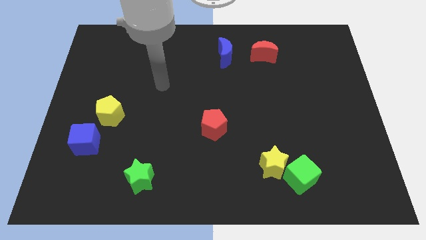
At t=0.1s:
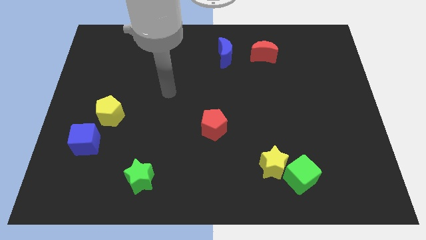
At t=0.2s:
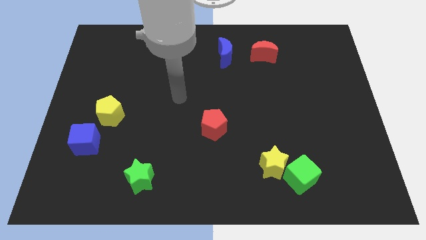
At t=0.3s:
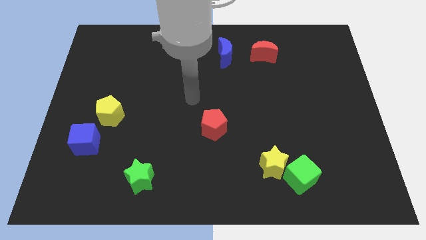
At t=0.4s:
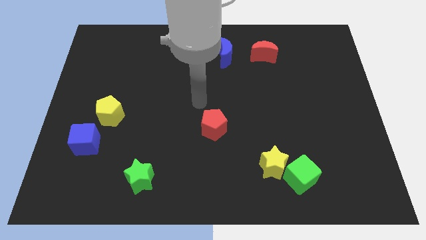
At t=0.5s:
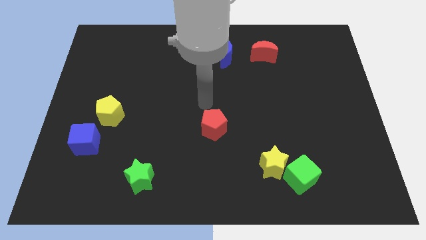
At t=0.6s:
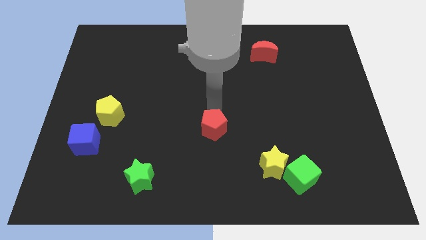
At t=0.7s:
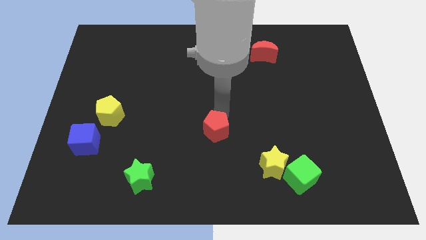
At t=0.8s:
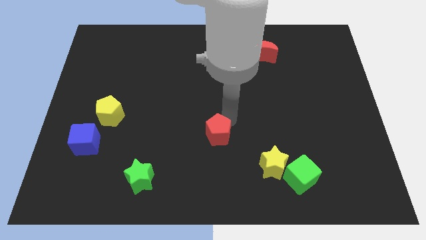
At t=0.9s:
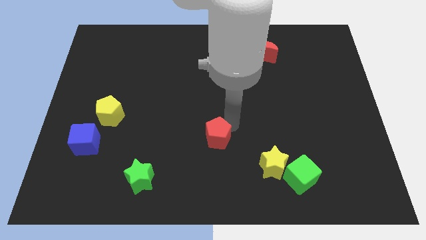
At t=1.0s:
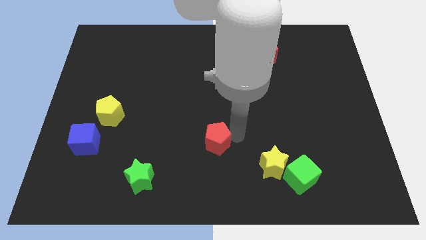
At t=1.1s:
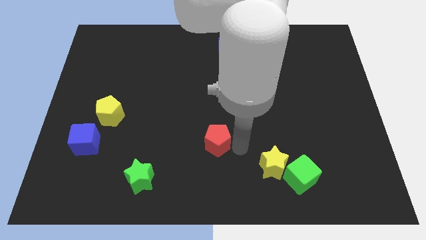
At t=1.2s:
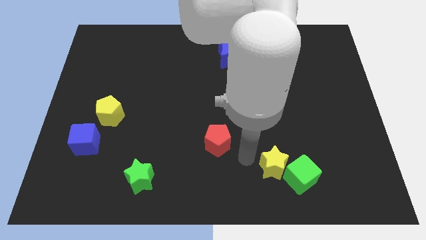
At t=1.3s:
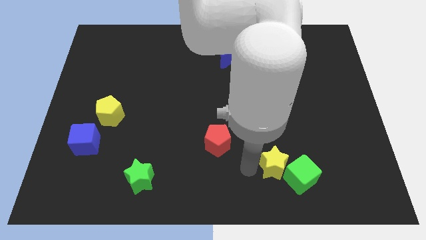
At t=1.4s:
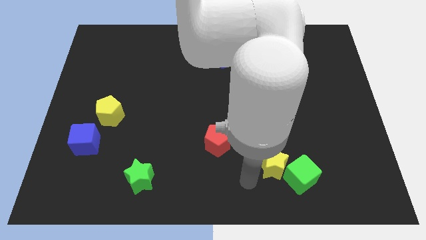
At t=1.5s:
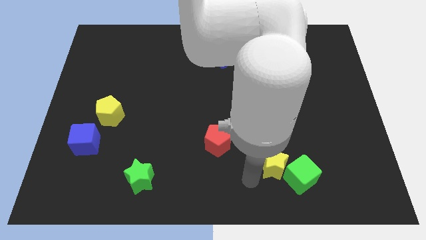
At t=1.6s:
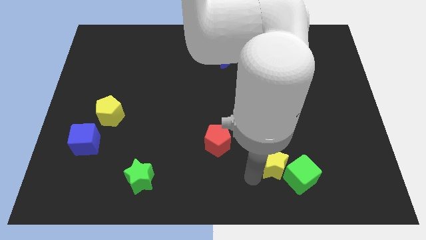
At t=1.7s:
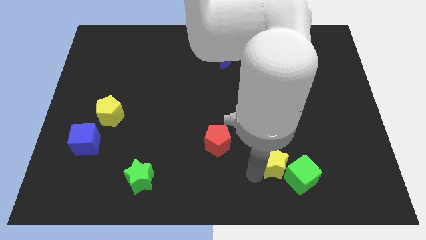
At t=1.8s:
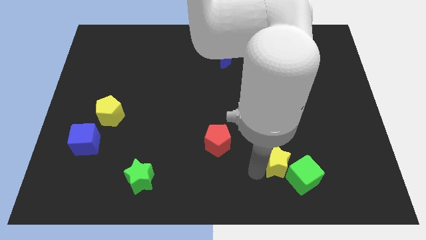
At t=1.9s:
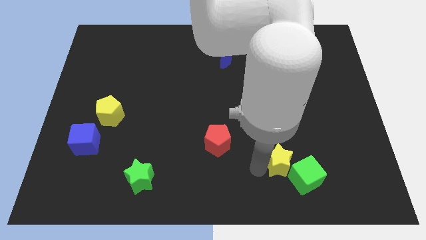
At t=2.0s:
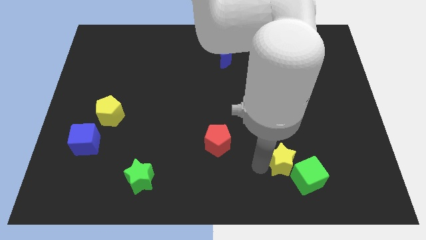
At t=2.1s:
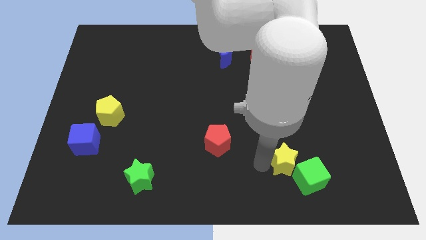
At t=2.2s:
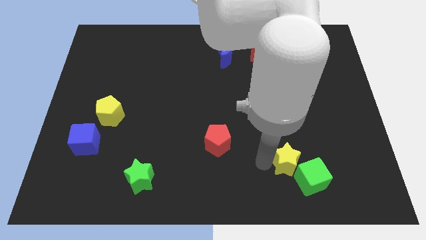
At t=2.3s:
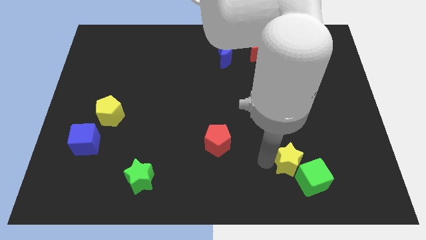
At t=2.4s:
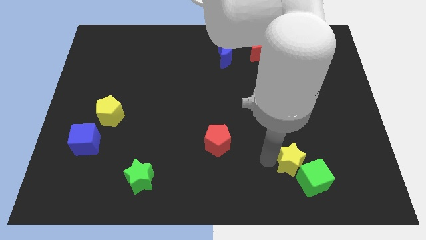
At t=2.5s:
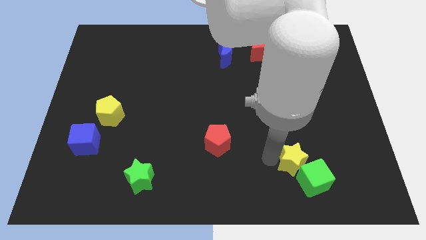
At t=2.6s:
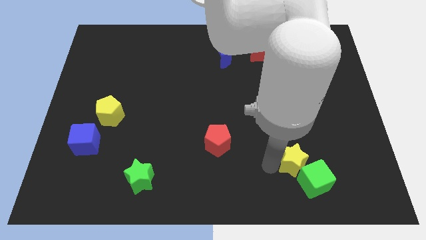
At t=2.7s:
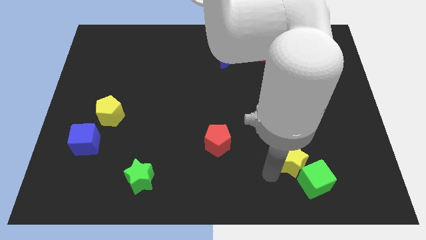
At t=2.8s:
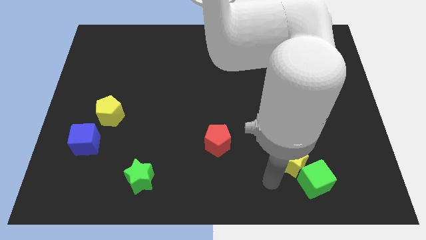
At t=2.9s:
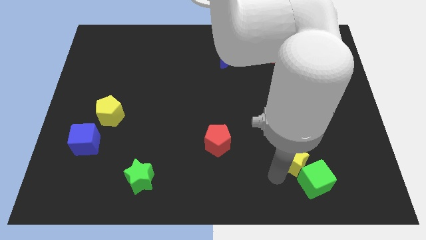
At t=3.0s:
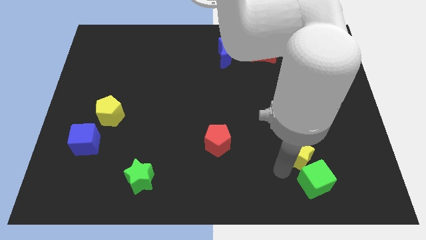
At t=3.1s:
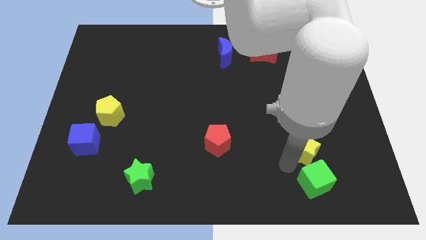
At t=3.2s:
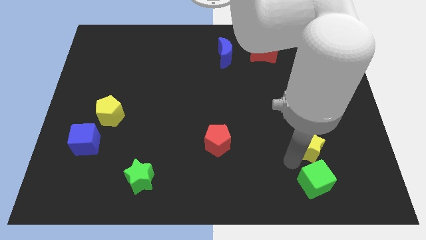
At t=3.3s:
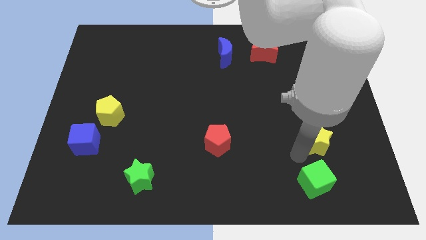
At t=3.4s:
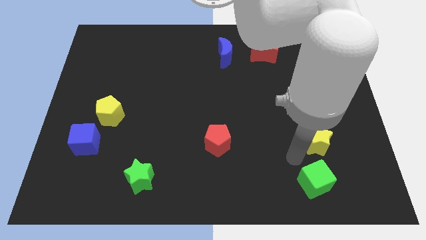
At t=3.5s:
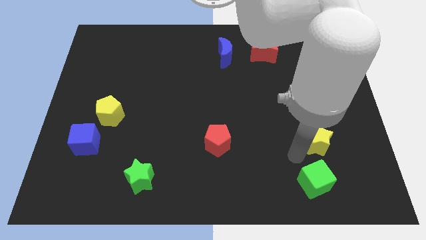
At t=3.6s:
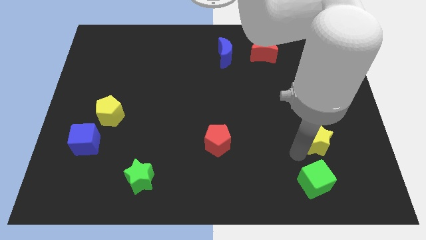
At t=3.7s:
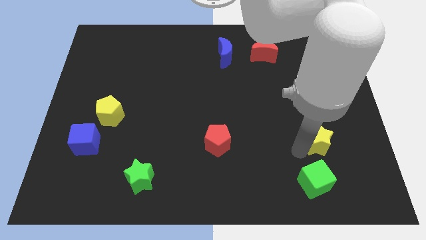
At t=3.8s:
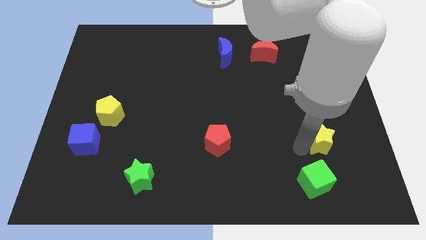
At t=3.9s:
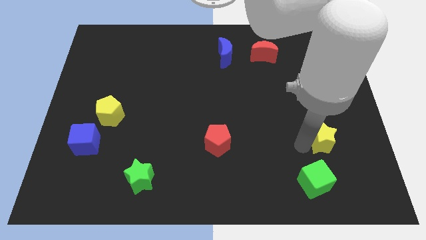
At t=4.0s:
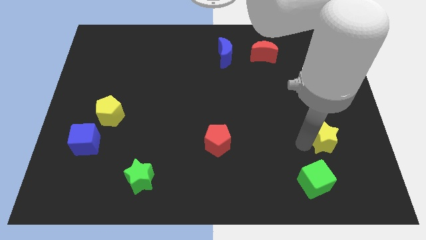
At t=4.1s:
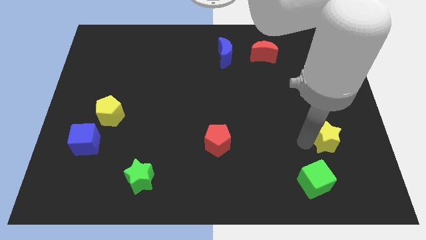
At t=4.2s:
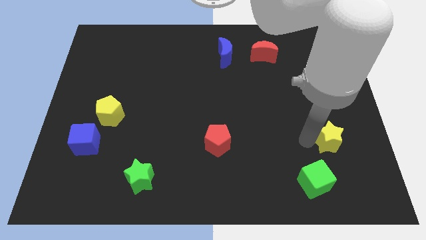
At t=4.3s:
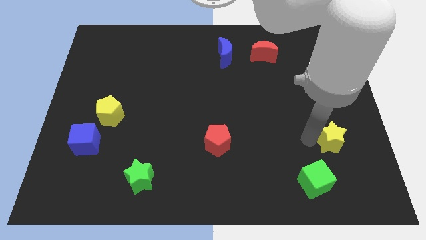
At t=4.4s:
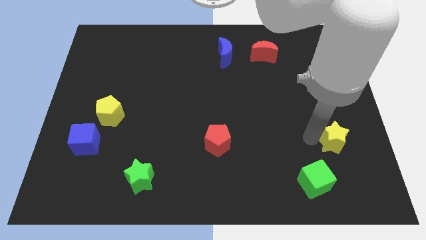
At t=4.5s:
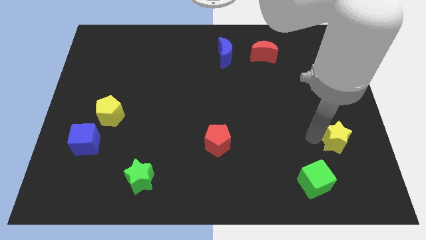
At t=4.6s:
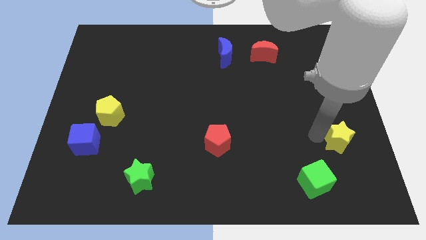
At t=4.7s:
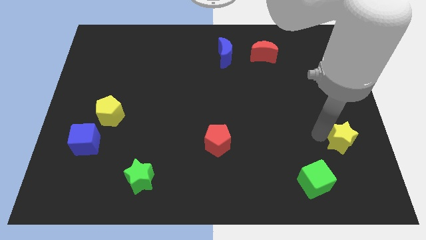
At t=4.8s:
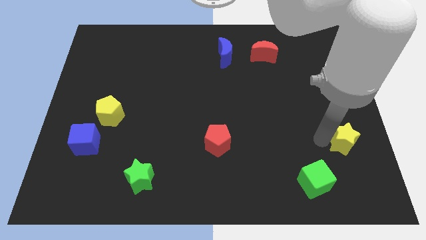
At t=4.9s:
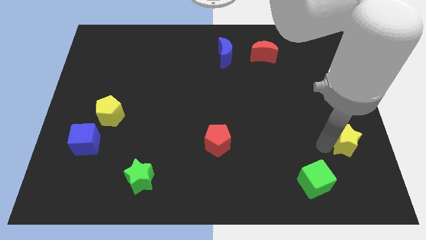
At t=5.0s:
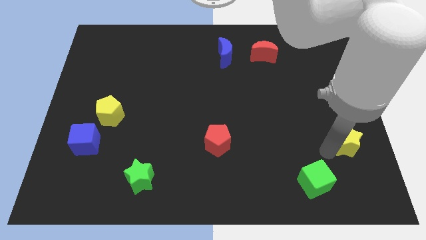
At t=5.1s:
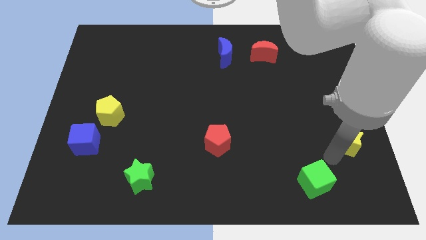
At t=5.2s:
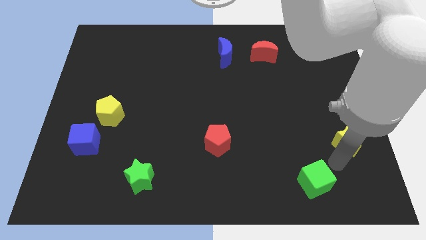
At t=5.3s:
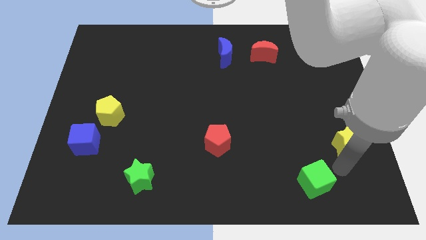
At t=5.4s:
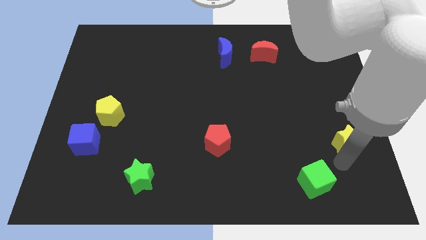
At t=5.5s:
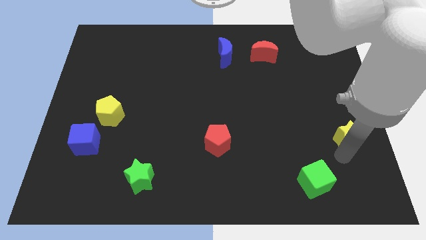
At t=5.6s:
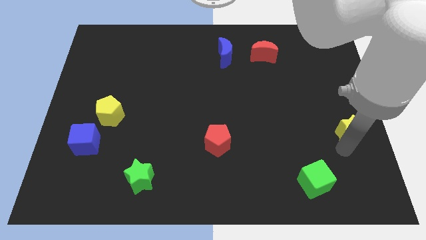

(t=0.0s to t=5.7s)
slide the yellow star to the center right

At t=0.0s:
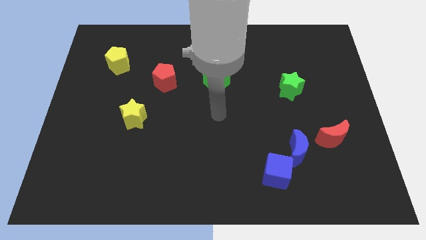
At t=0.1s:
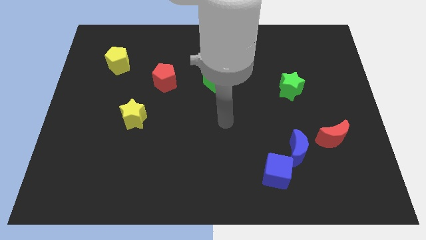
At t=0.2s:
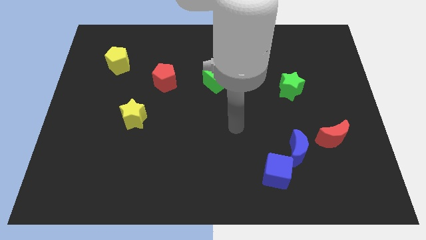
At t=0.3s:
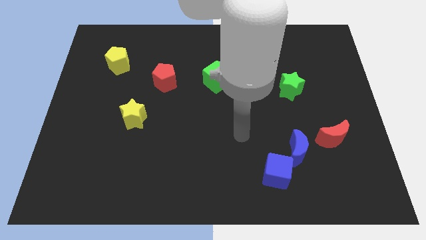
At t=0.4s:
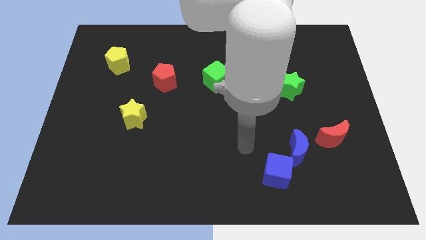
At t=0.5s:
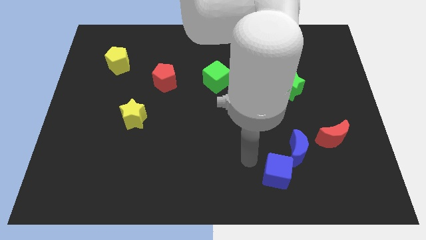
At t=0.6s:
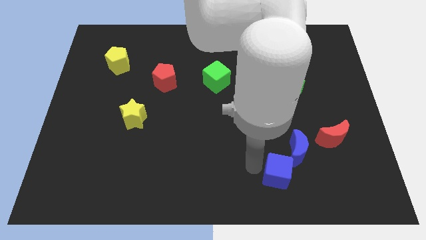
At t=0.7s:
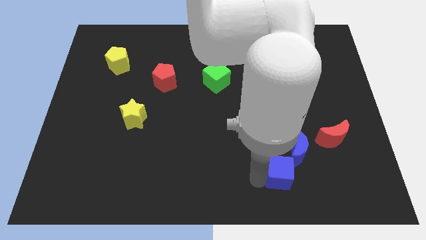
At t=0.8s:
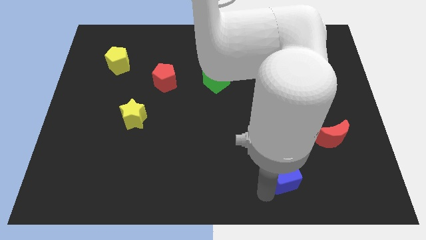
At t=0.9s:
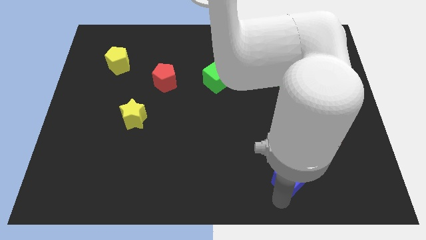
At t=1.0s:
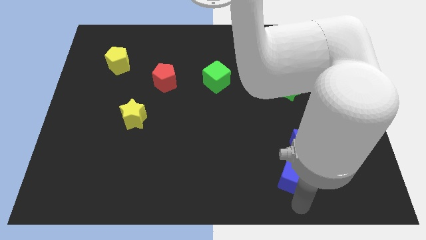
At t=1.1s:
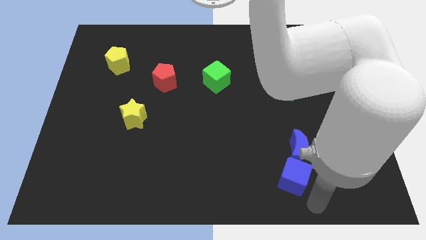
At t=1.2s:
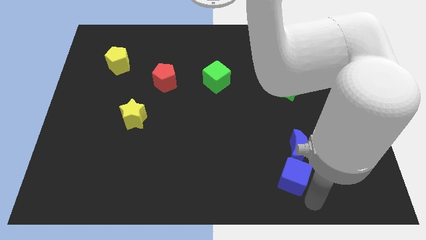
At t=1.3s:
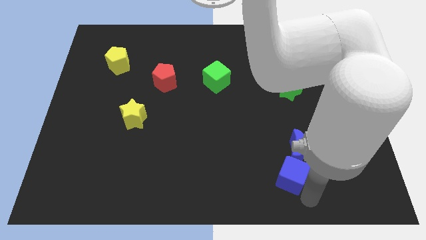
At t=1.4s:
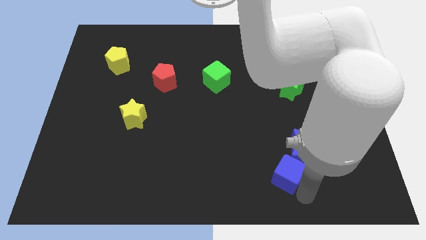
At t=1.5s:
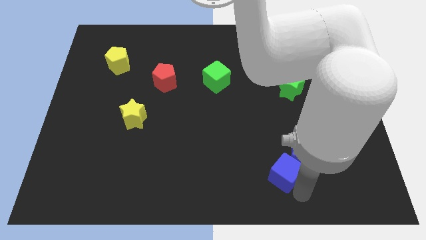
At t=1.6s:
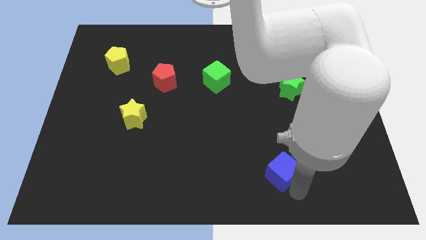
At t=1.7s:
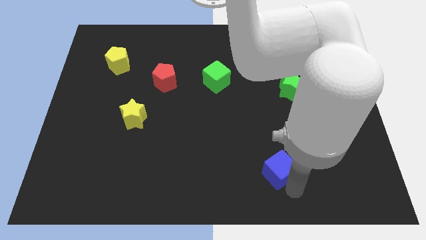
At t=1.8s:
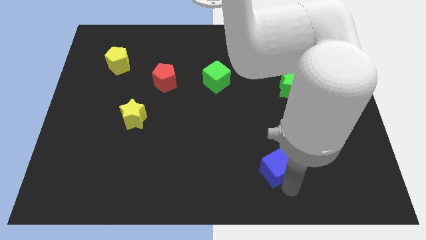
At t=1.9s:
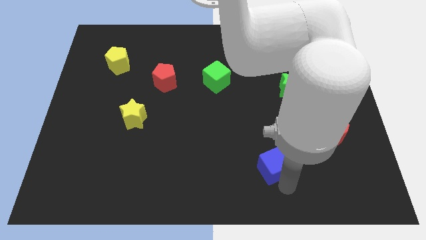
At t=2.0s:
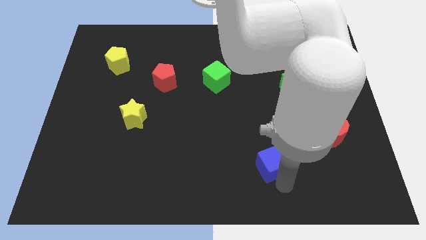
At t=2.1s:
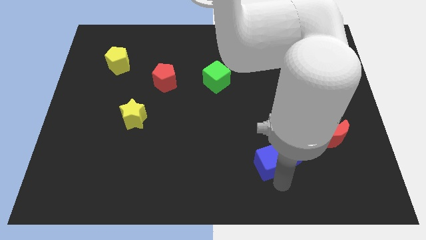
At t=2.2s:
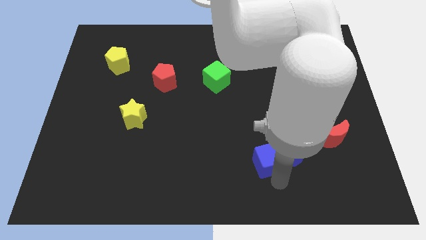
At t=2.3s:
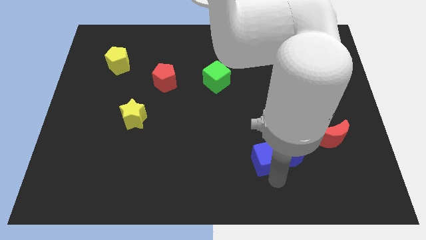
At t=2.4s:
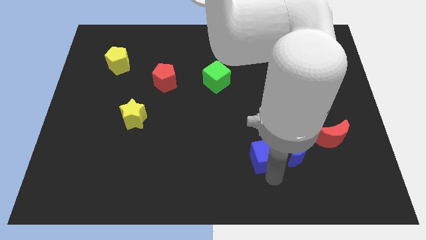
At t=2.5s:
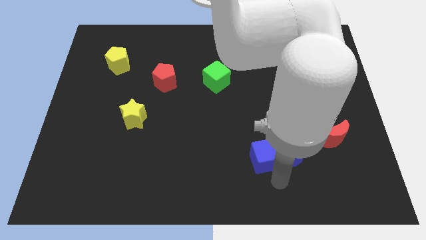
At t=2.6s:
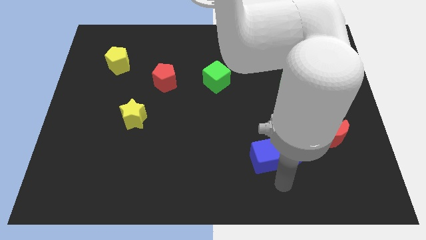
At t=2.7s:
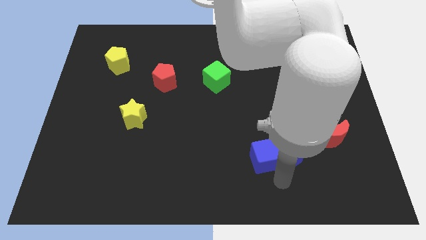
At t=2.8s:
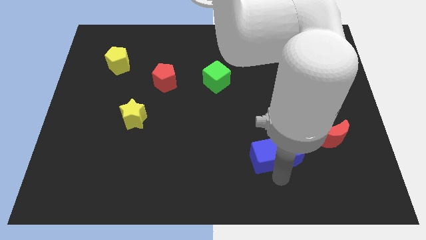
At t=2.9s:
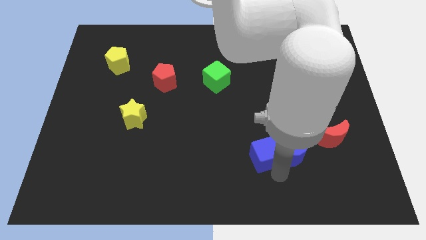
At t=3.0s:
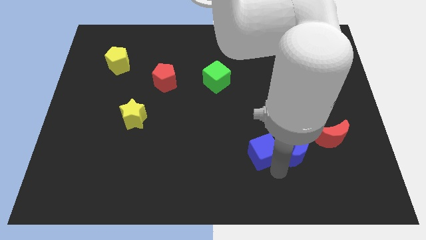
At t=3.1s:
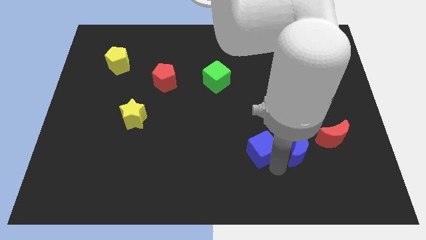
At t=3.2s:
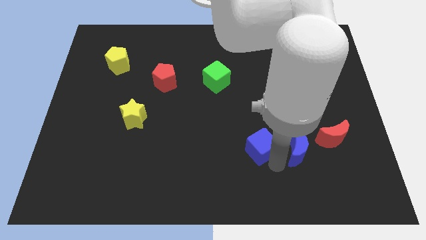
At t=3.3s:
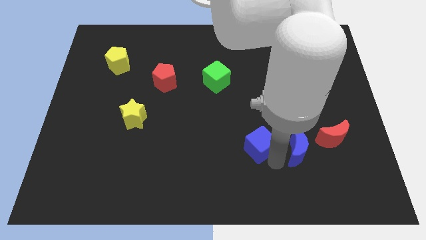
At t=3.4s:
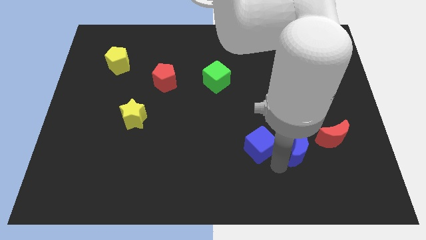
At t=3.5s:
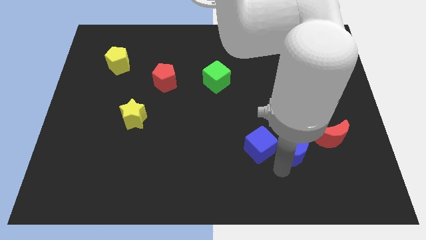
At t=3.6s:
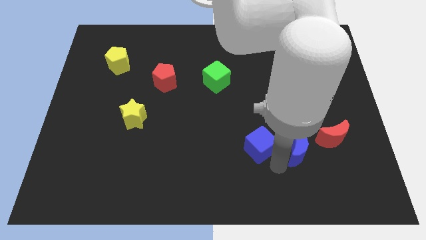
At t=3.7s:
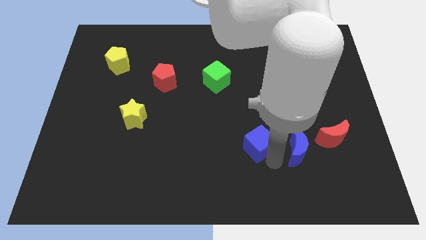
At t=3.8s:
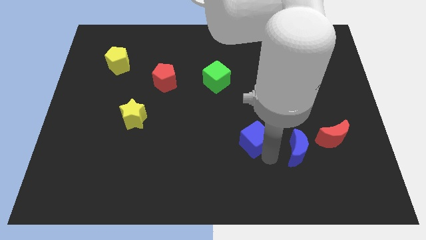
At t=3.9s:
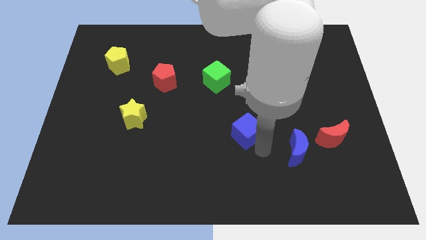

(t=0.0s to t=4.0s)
slide the blue cube to the middle
